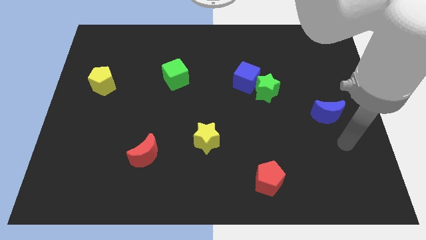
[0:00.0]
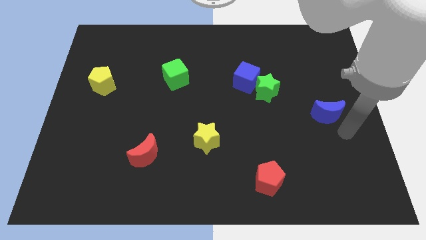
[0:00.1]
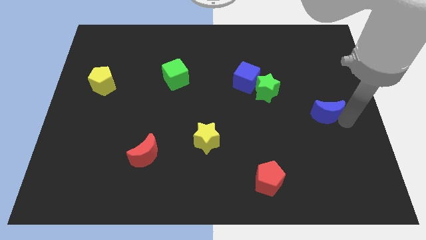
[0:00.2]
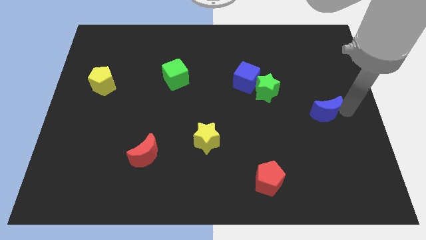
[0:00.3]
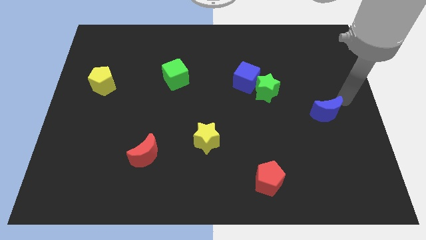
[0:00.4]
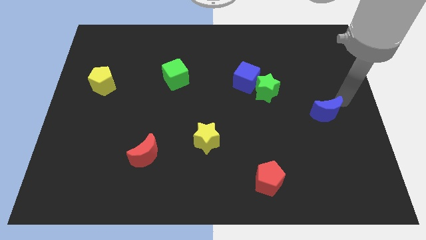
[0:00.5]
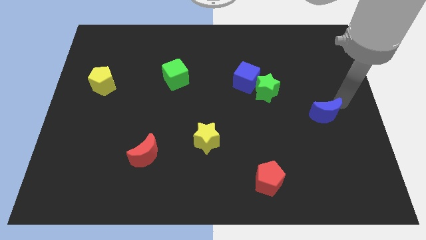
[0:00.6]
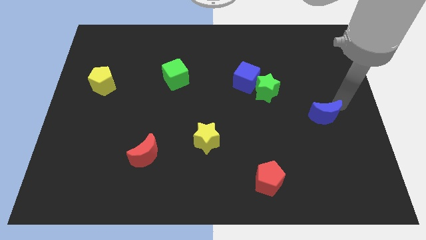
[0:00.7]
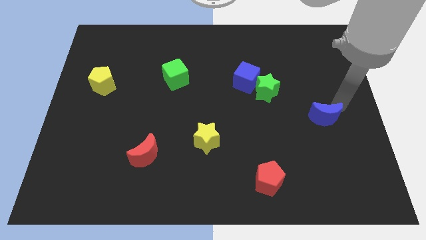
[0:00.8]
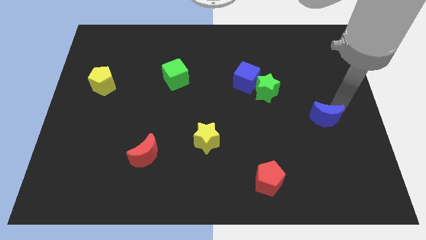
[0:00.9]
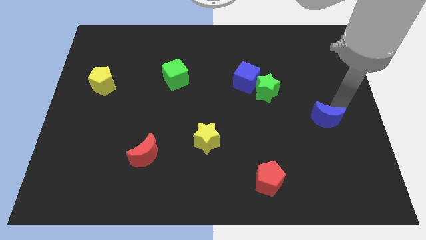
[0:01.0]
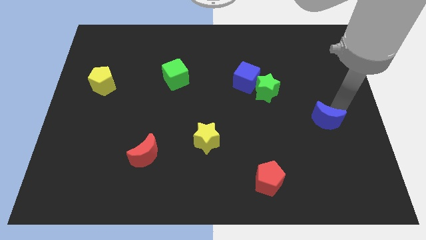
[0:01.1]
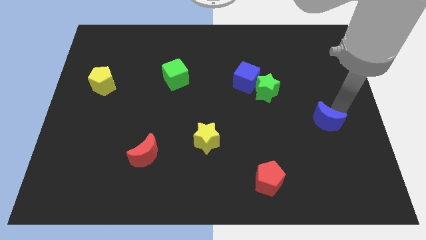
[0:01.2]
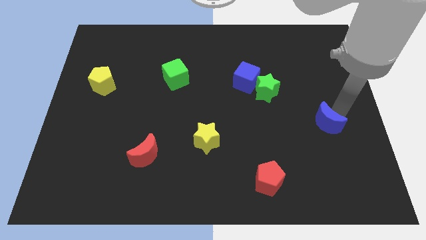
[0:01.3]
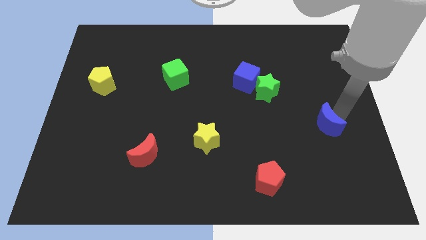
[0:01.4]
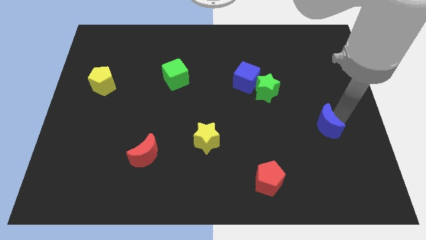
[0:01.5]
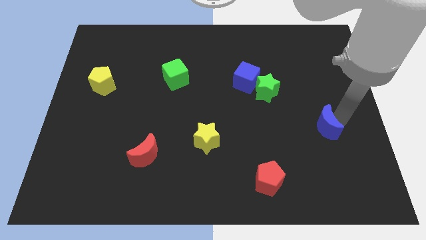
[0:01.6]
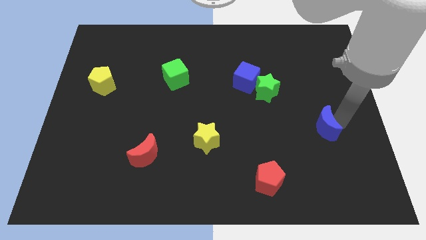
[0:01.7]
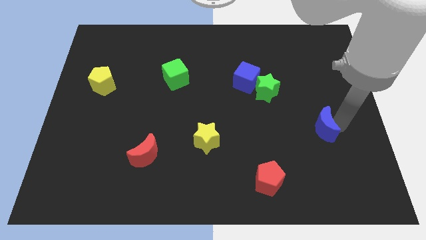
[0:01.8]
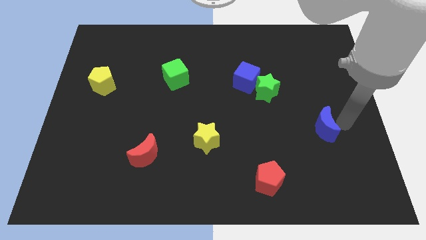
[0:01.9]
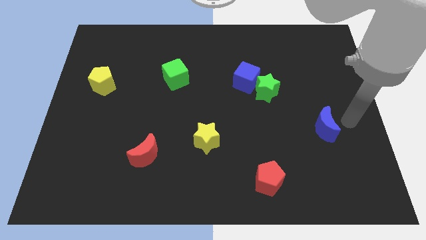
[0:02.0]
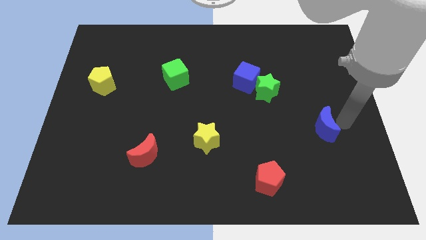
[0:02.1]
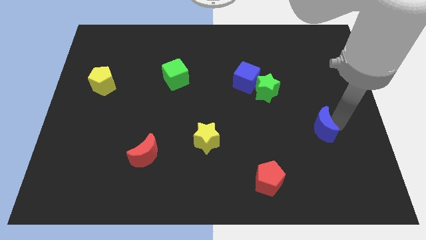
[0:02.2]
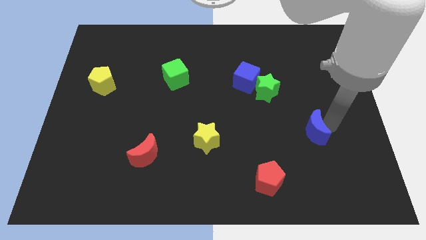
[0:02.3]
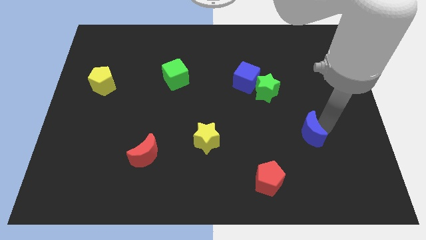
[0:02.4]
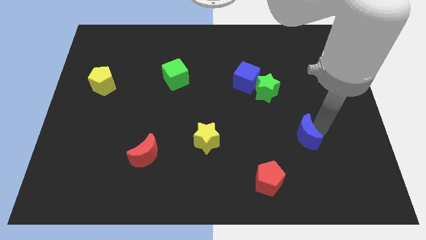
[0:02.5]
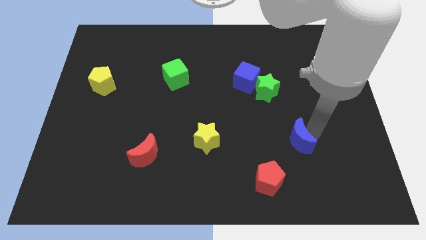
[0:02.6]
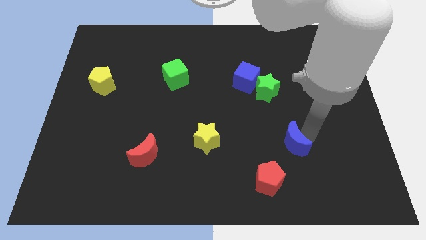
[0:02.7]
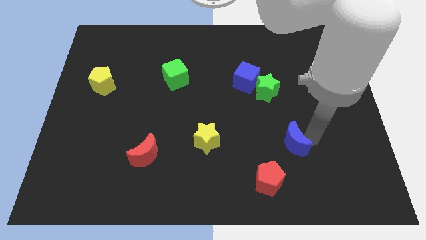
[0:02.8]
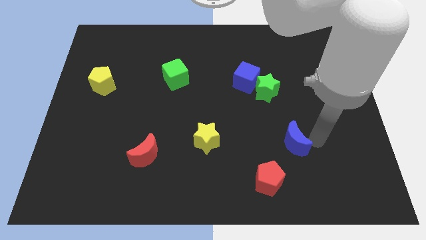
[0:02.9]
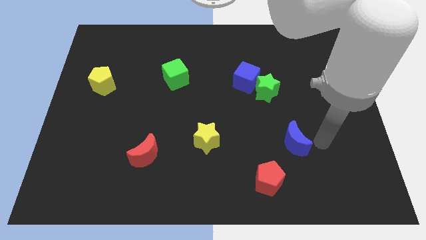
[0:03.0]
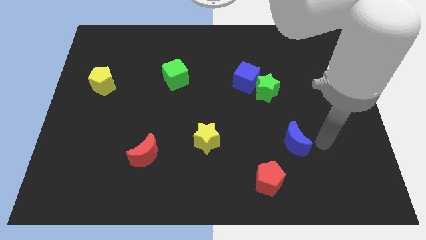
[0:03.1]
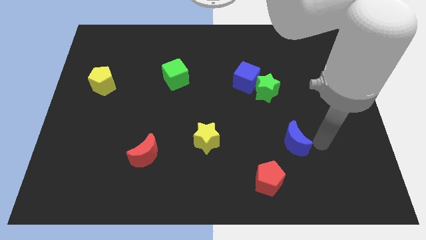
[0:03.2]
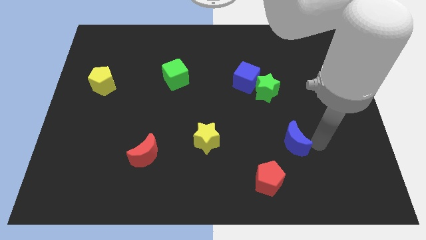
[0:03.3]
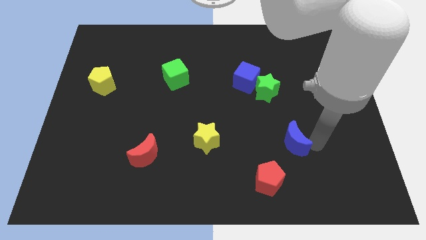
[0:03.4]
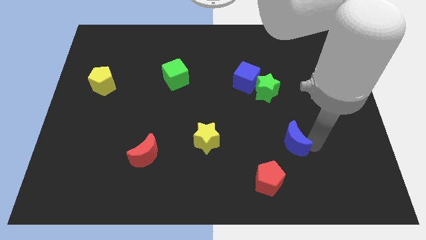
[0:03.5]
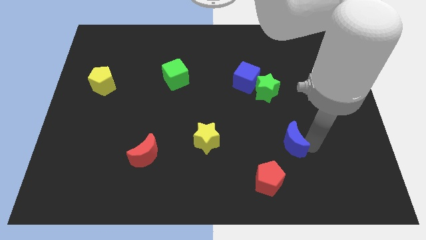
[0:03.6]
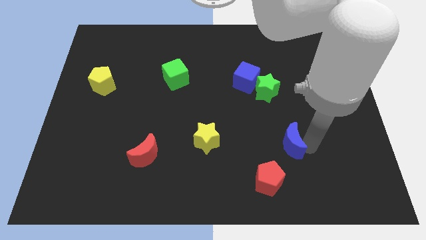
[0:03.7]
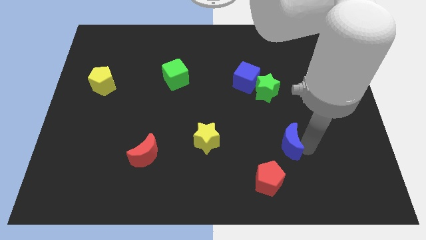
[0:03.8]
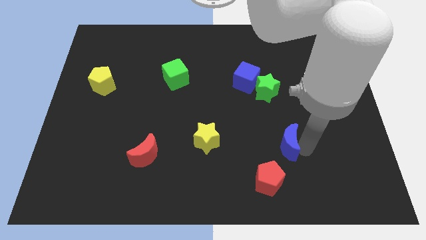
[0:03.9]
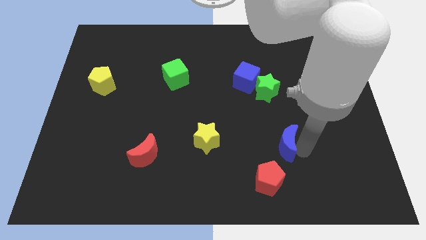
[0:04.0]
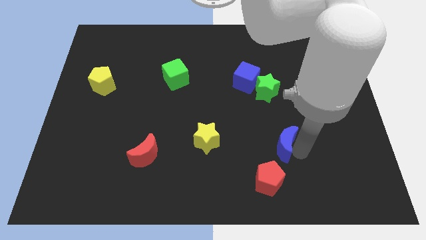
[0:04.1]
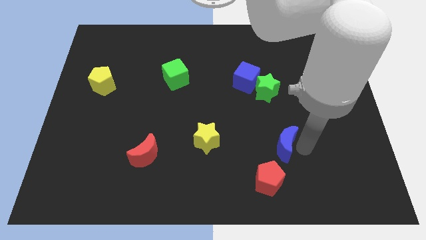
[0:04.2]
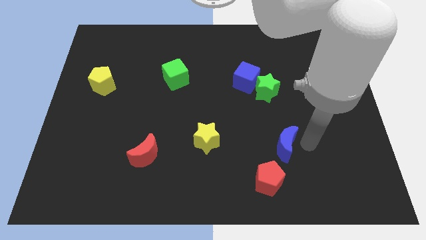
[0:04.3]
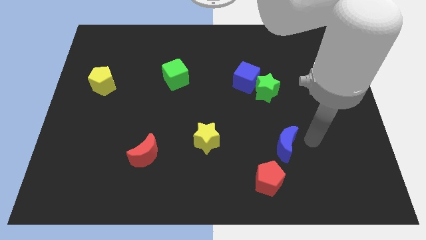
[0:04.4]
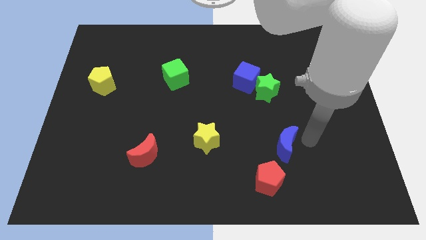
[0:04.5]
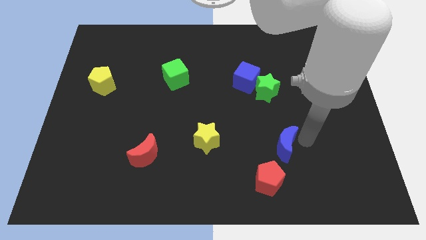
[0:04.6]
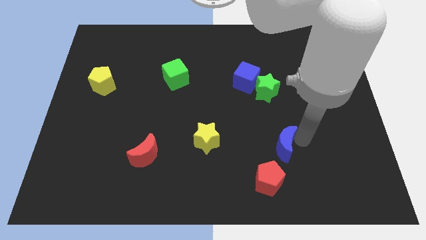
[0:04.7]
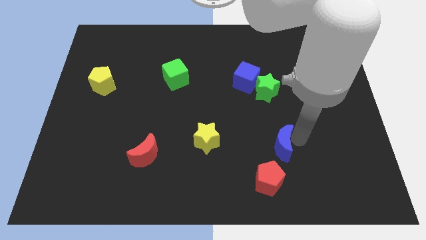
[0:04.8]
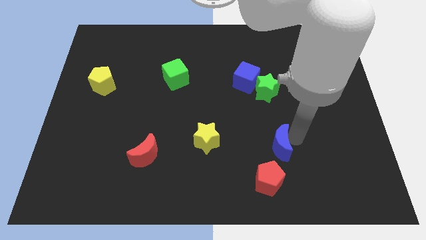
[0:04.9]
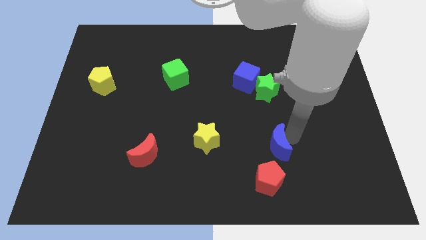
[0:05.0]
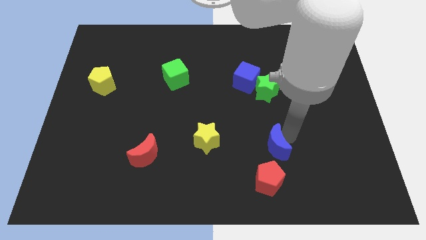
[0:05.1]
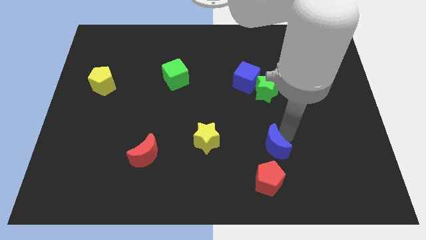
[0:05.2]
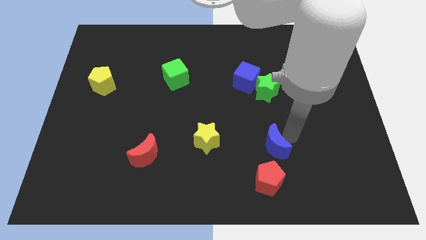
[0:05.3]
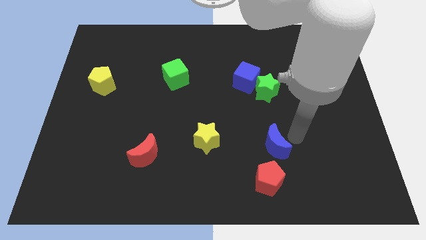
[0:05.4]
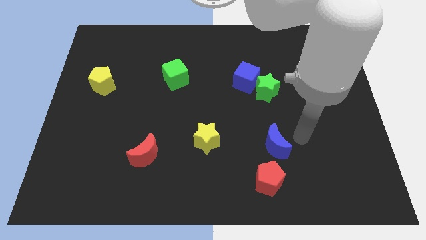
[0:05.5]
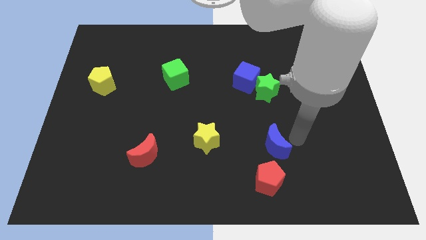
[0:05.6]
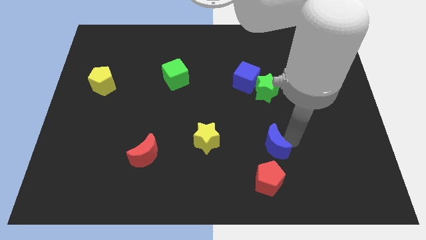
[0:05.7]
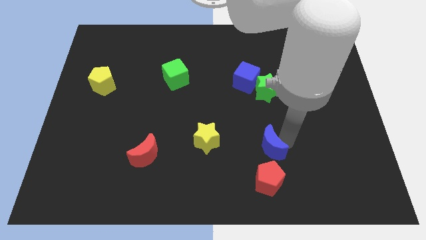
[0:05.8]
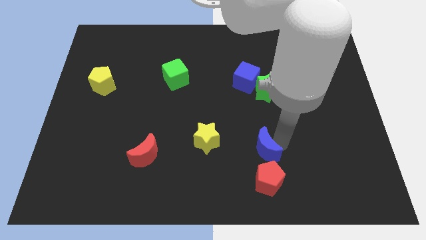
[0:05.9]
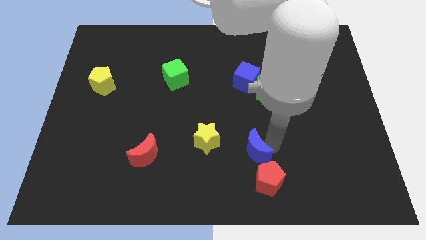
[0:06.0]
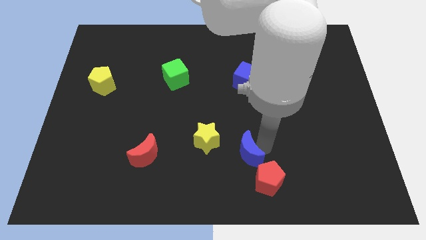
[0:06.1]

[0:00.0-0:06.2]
move the blue moon to the bottom right of the yellow star

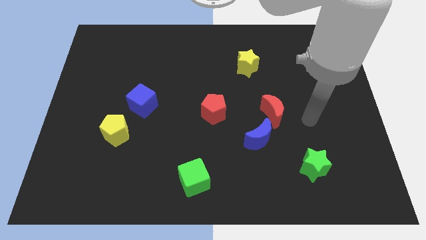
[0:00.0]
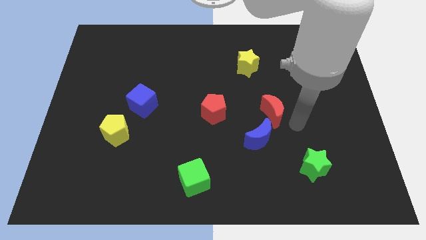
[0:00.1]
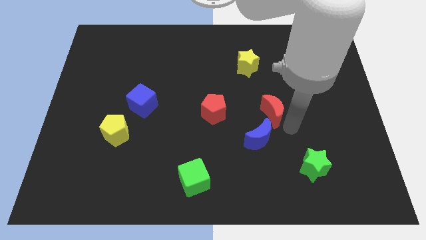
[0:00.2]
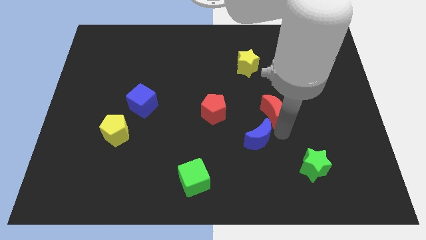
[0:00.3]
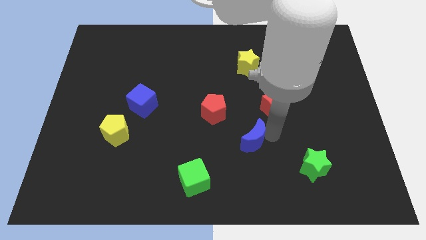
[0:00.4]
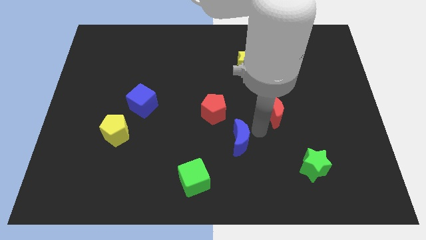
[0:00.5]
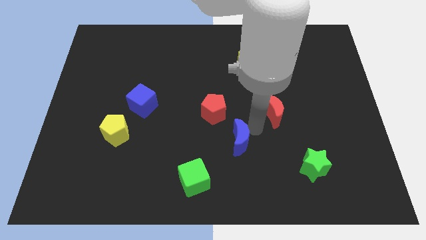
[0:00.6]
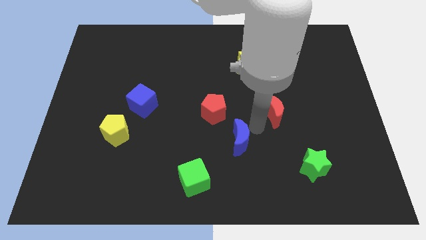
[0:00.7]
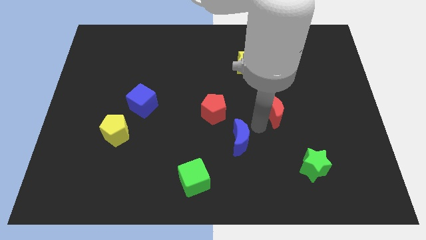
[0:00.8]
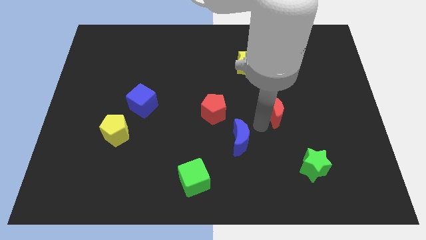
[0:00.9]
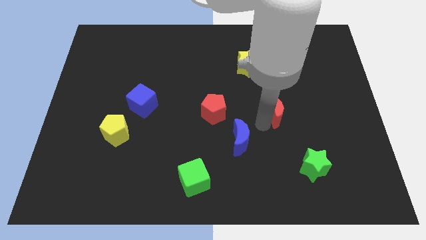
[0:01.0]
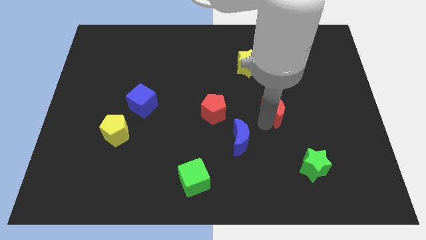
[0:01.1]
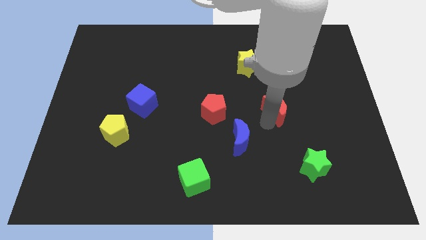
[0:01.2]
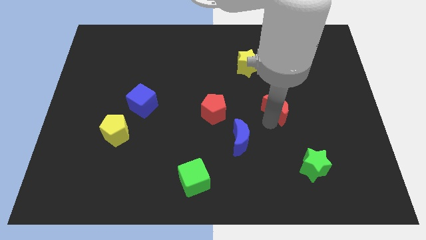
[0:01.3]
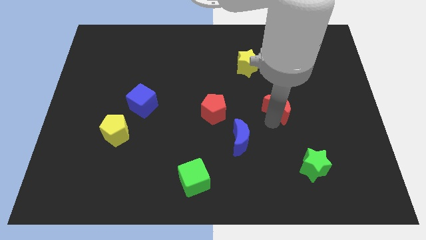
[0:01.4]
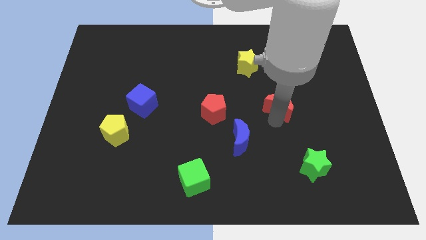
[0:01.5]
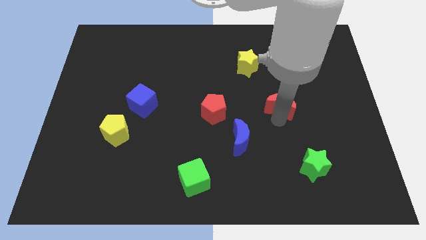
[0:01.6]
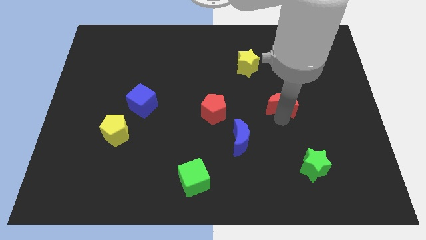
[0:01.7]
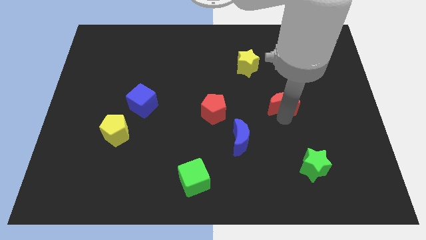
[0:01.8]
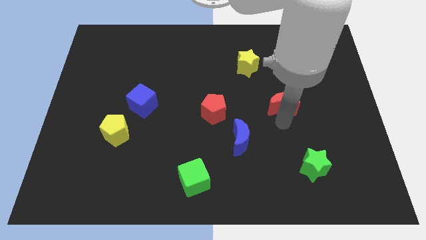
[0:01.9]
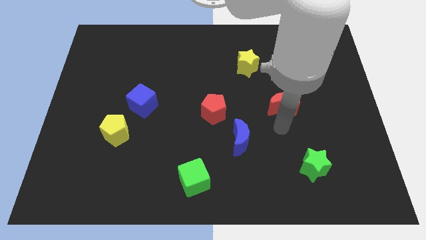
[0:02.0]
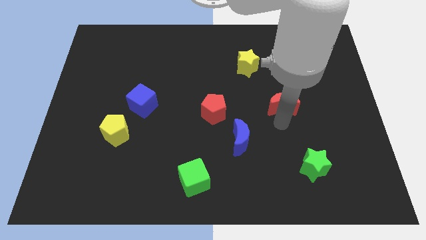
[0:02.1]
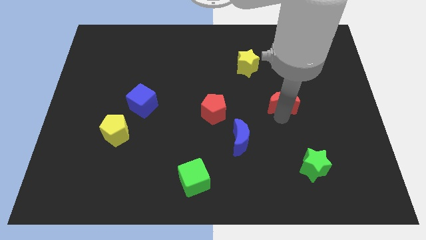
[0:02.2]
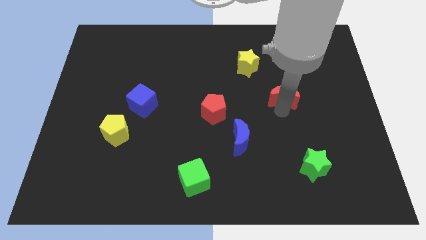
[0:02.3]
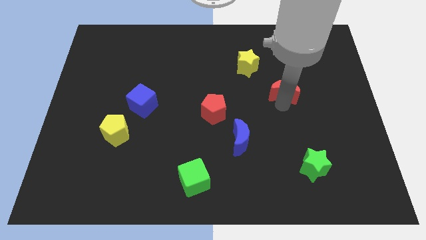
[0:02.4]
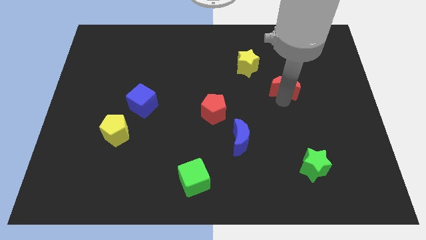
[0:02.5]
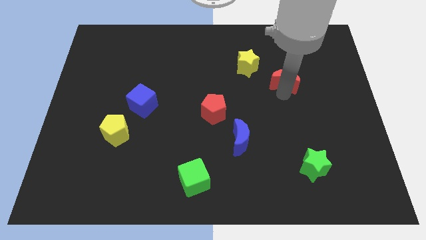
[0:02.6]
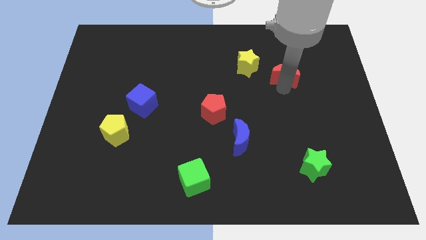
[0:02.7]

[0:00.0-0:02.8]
move the red moon to the right of the yellow star
